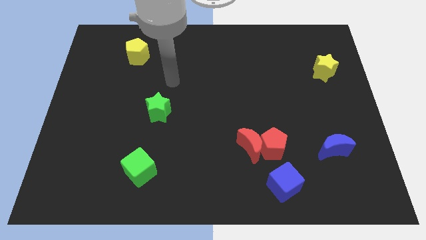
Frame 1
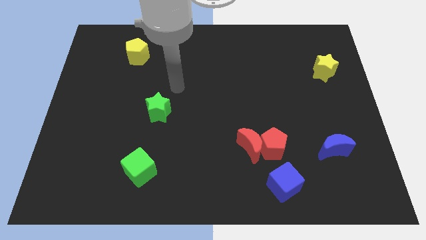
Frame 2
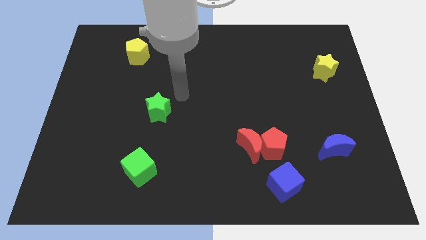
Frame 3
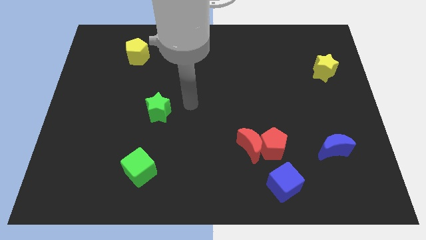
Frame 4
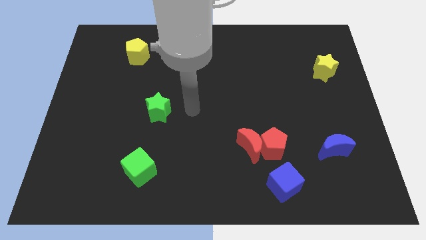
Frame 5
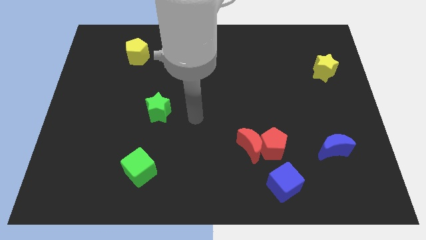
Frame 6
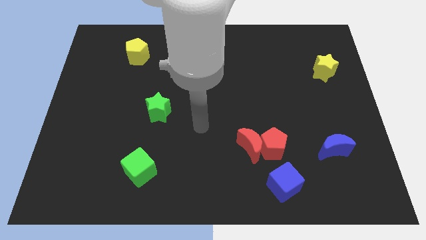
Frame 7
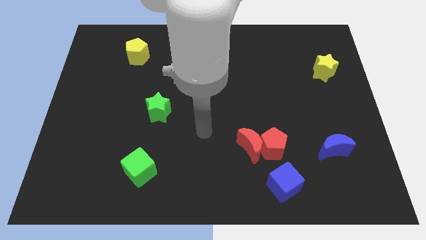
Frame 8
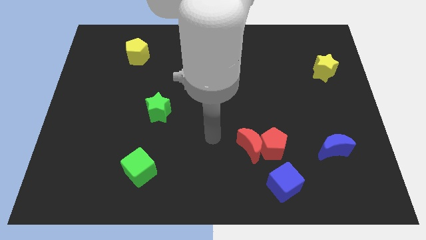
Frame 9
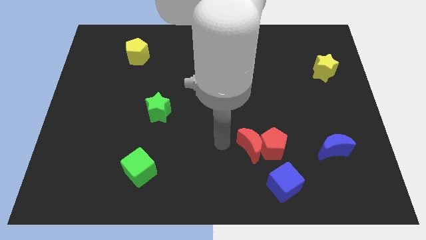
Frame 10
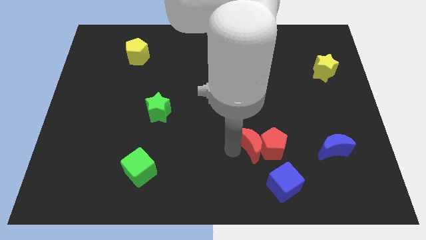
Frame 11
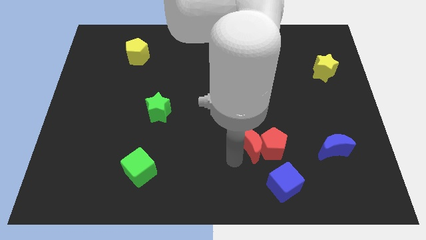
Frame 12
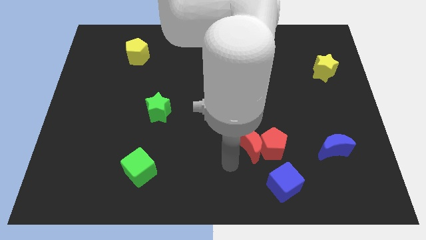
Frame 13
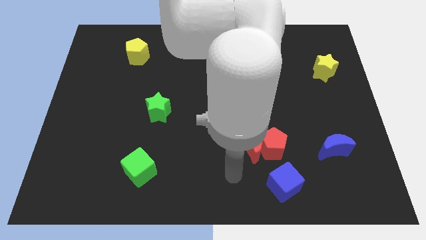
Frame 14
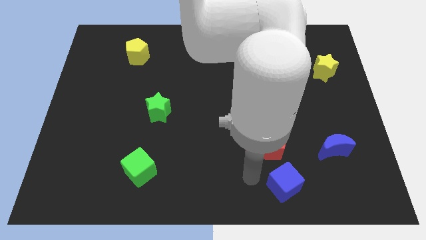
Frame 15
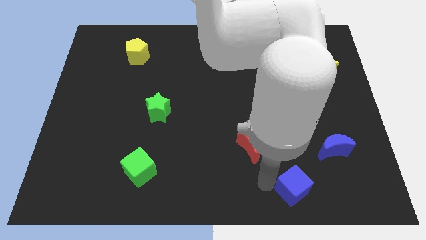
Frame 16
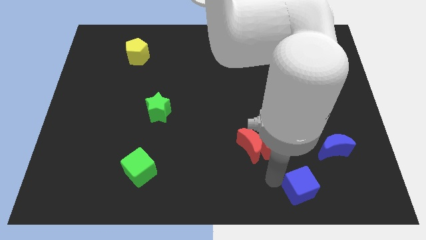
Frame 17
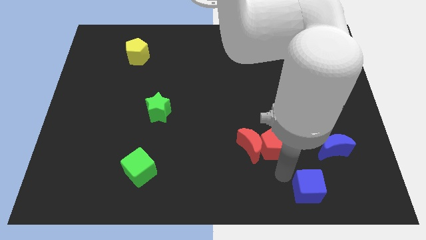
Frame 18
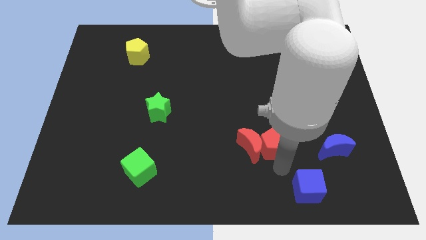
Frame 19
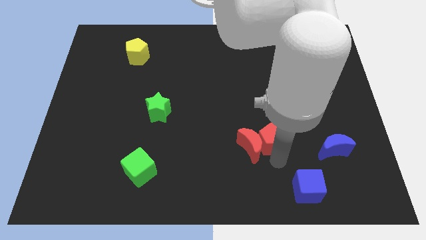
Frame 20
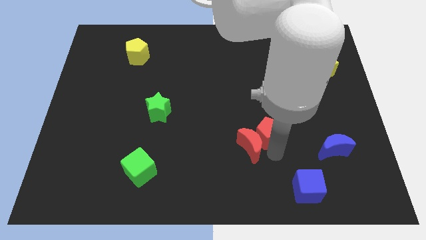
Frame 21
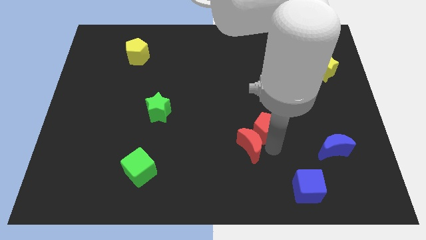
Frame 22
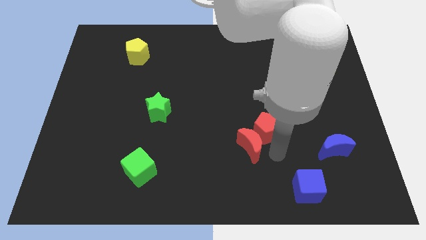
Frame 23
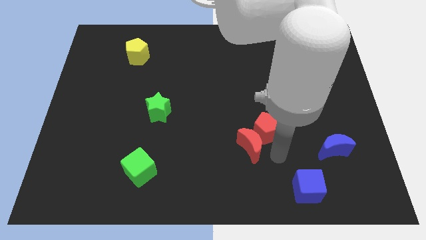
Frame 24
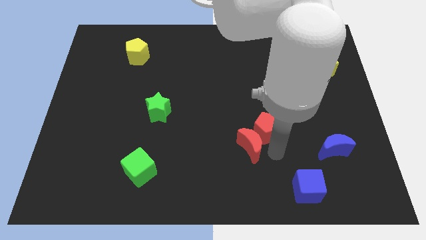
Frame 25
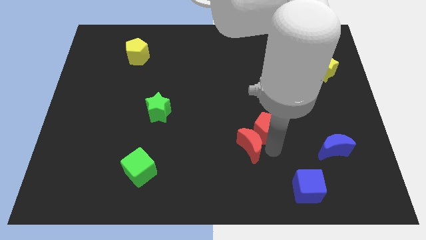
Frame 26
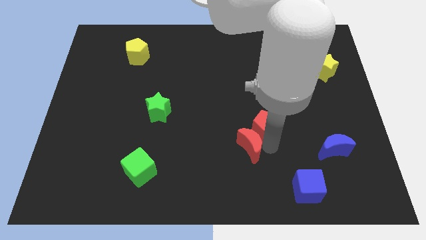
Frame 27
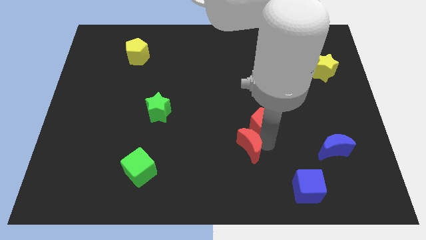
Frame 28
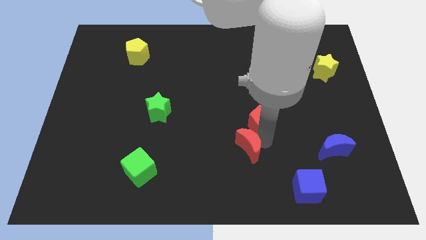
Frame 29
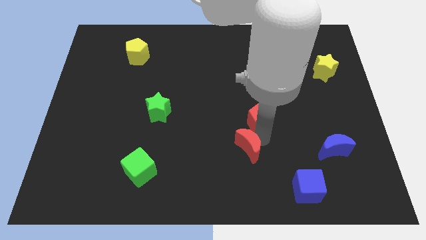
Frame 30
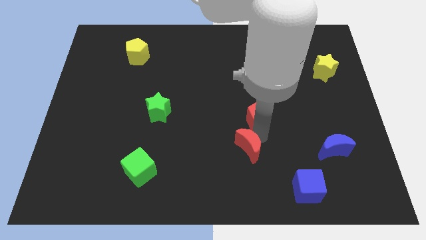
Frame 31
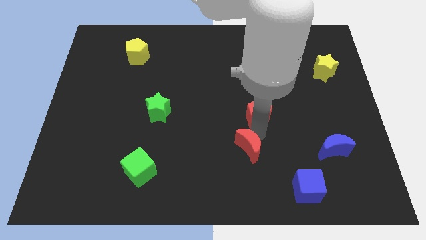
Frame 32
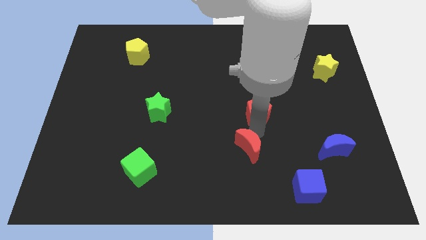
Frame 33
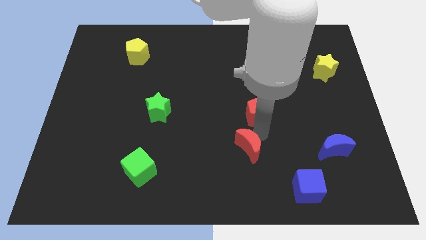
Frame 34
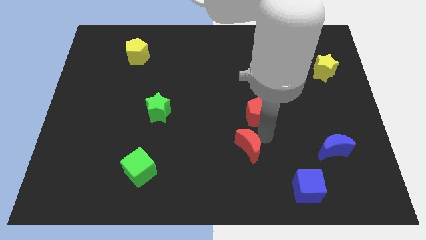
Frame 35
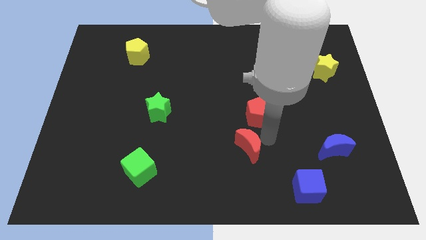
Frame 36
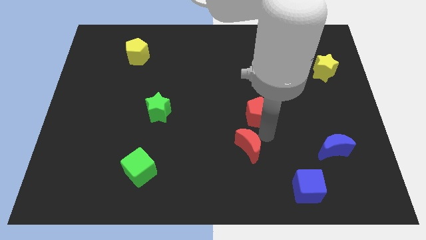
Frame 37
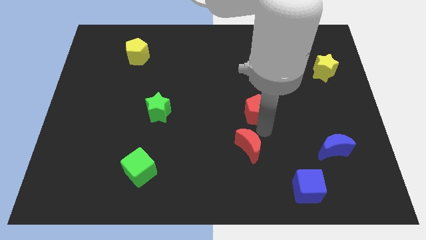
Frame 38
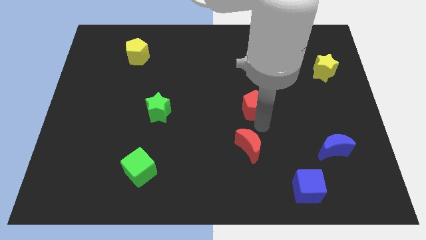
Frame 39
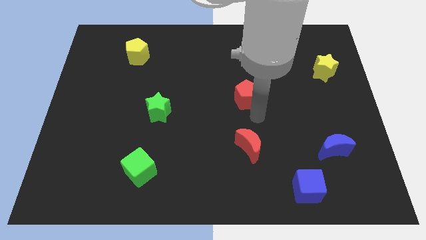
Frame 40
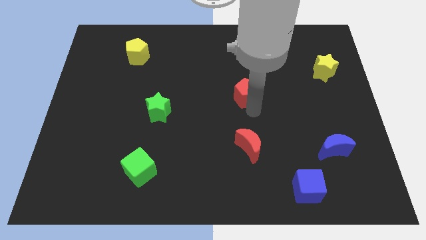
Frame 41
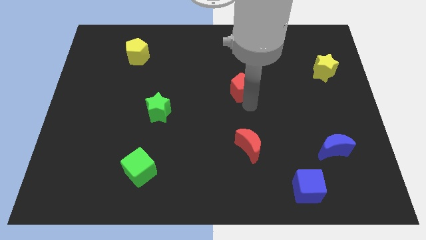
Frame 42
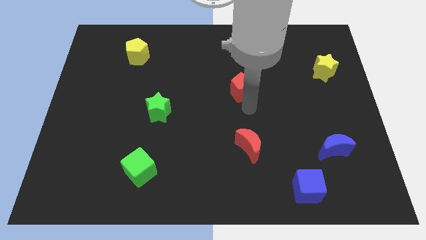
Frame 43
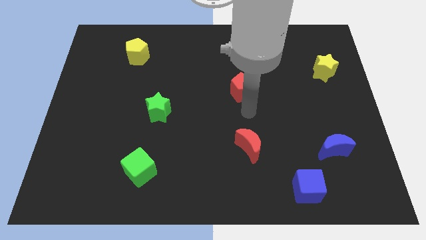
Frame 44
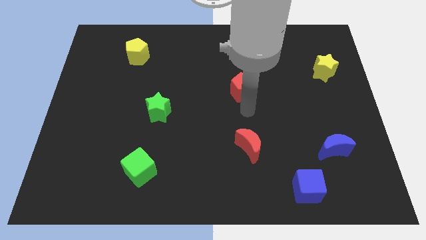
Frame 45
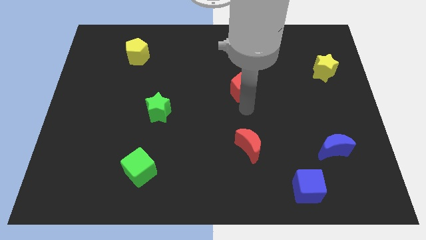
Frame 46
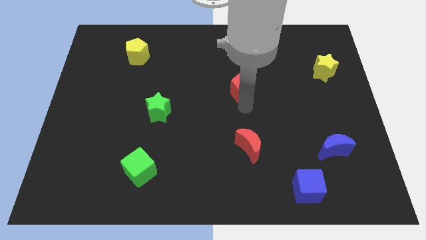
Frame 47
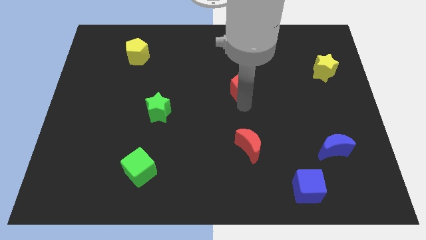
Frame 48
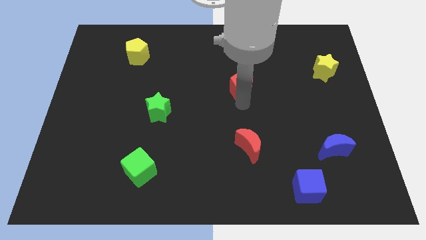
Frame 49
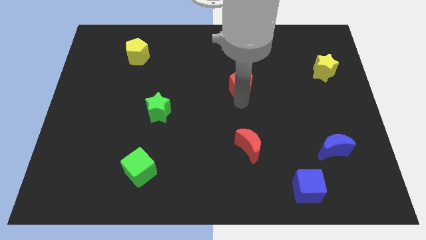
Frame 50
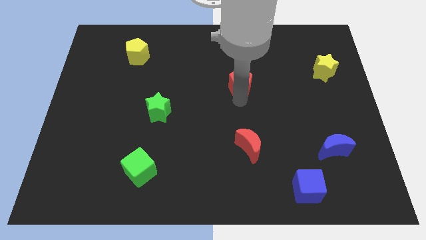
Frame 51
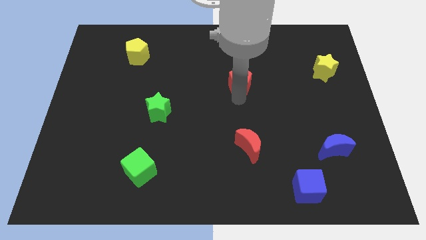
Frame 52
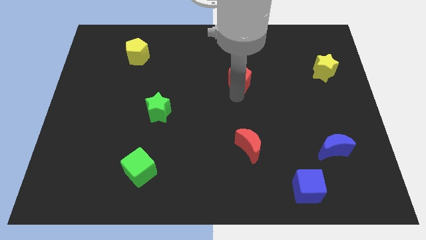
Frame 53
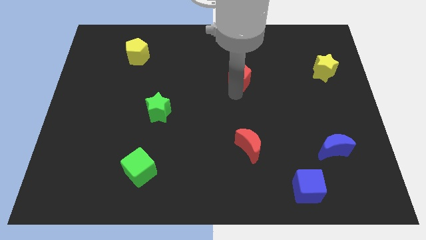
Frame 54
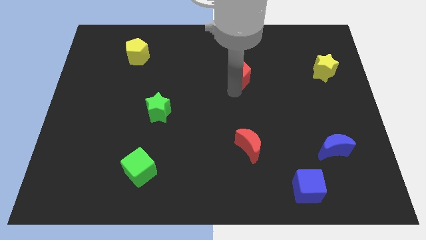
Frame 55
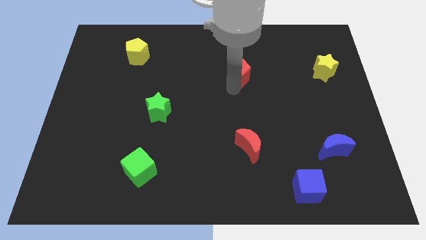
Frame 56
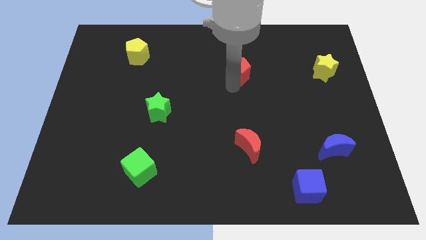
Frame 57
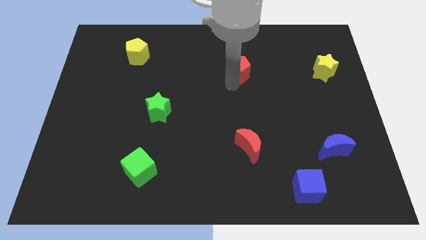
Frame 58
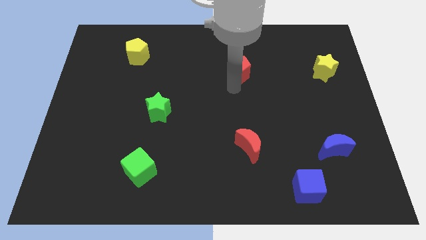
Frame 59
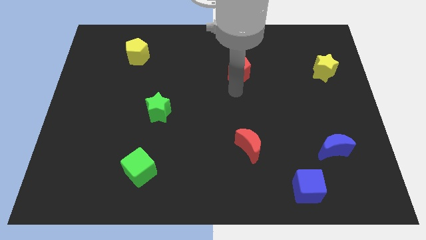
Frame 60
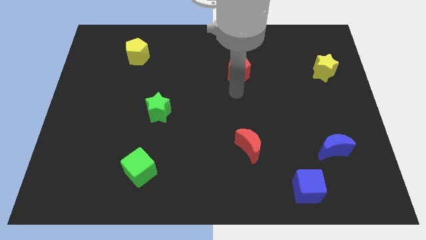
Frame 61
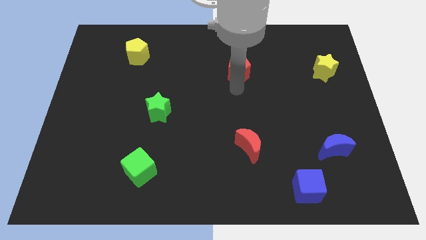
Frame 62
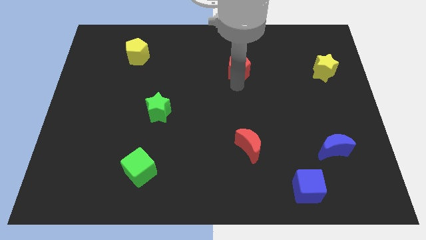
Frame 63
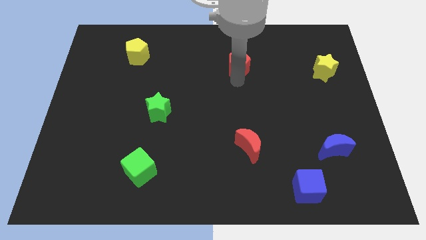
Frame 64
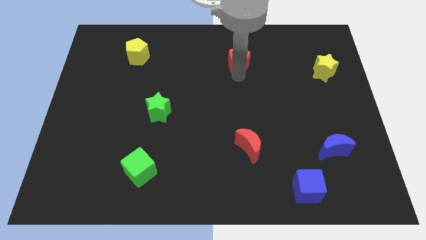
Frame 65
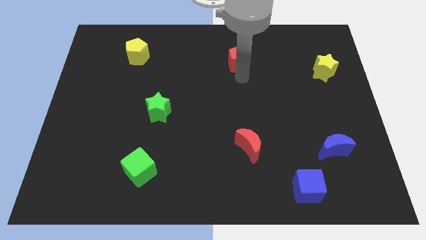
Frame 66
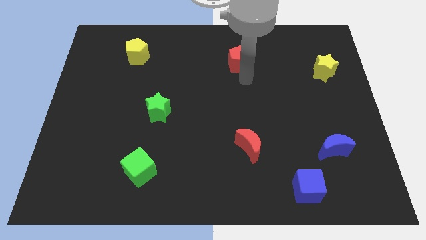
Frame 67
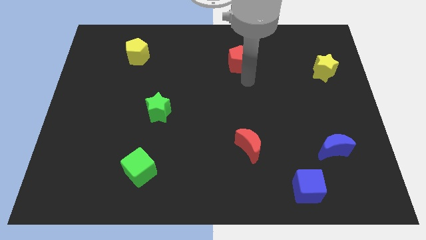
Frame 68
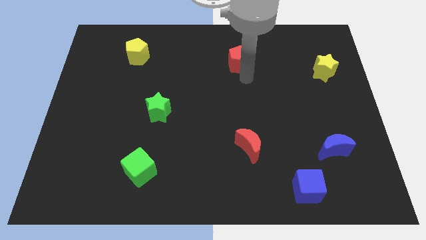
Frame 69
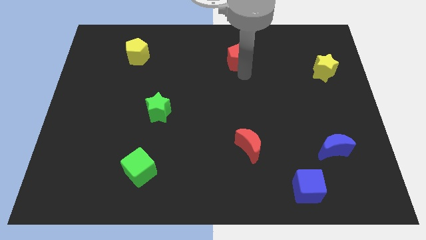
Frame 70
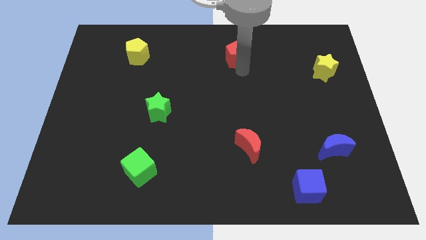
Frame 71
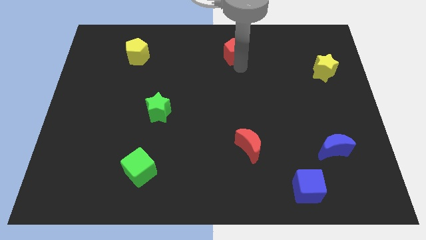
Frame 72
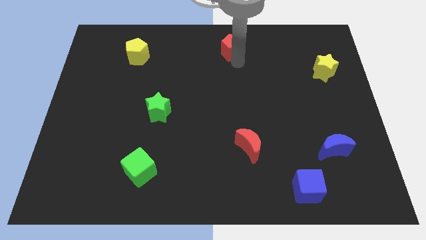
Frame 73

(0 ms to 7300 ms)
move the red pentagon to the towards your base

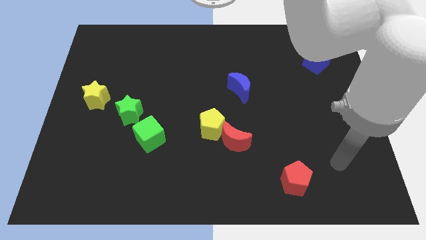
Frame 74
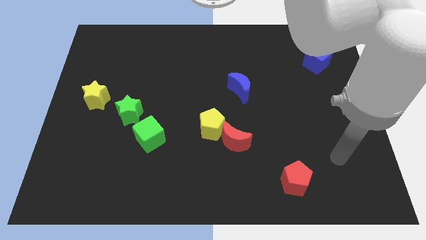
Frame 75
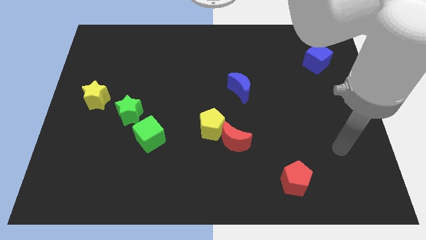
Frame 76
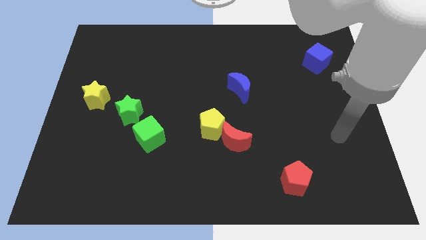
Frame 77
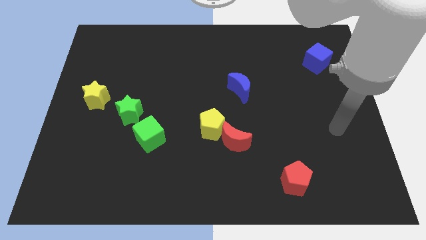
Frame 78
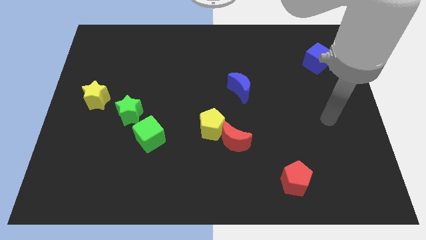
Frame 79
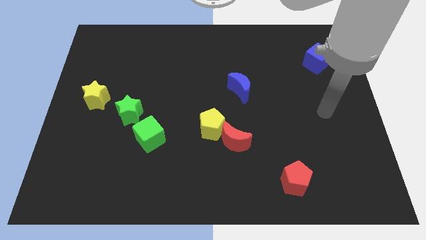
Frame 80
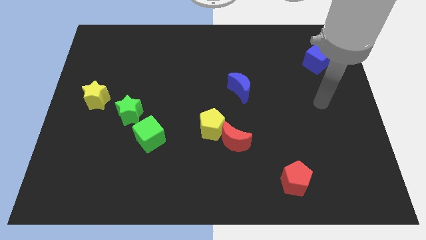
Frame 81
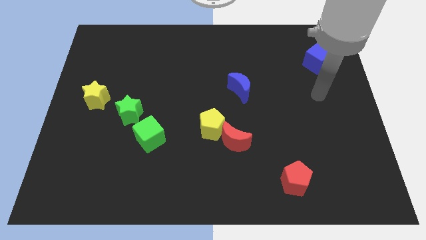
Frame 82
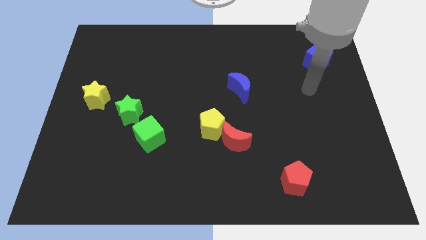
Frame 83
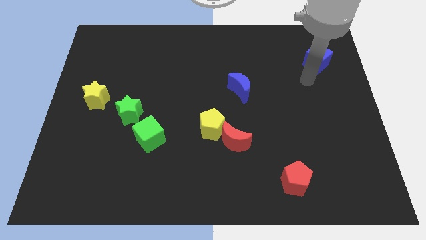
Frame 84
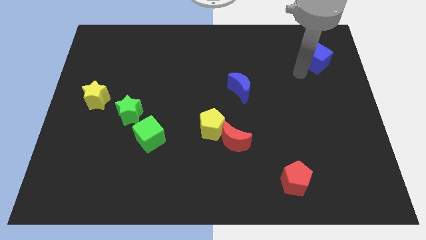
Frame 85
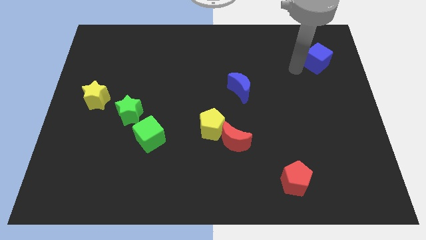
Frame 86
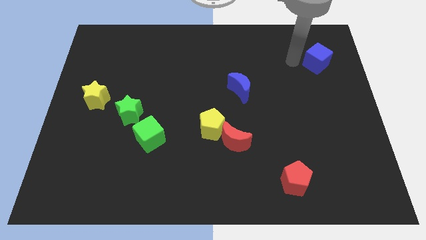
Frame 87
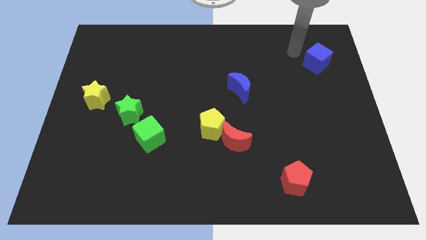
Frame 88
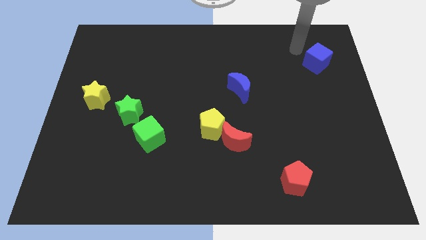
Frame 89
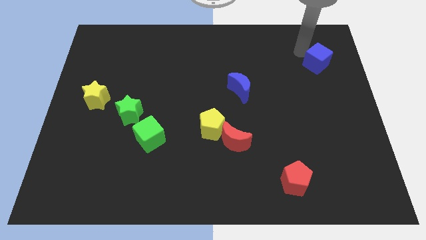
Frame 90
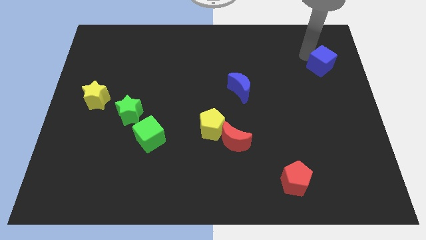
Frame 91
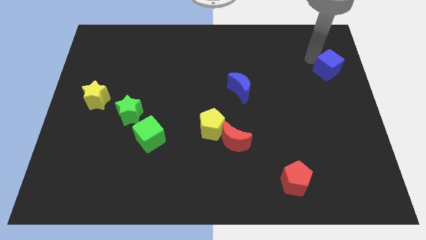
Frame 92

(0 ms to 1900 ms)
slide the blue cube to the right side of the board
